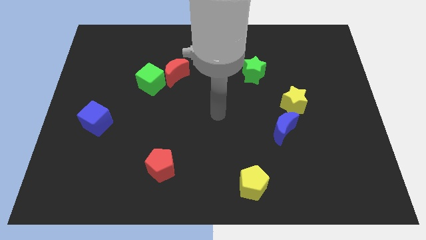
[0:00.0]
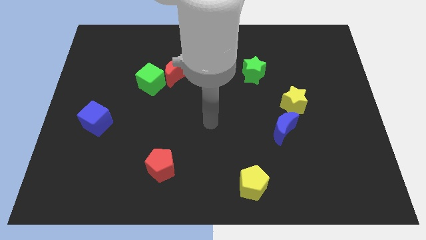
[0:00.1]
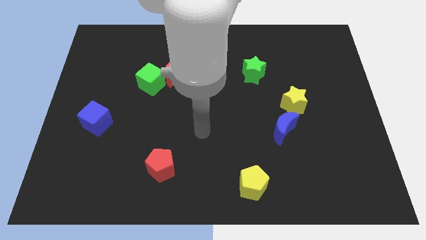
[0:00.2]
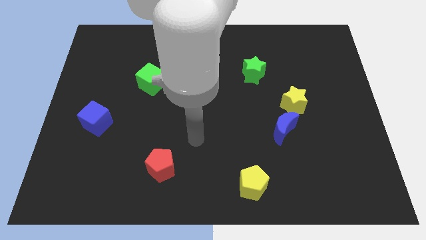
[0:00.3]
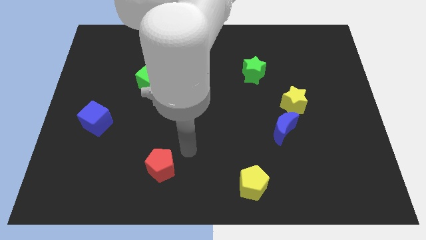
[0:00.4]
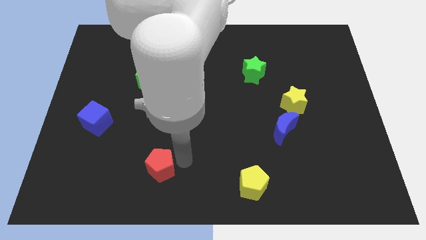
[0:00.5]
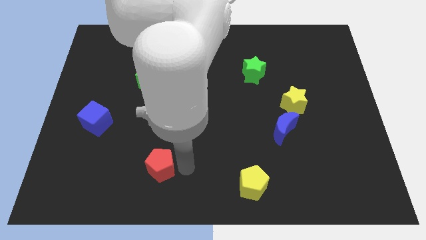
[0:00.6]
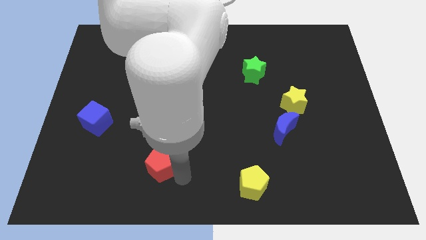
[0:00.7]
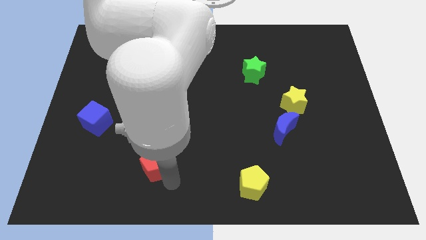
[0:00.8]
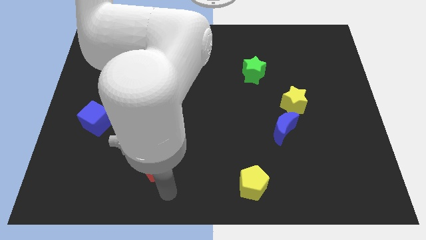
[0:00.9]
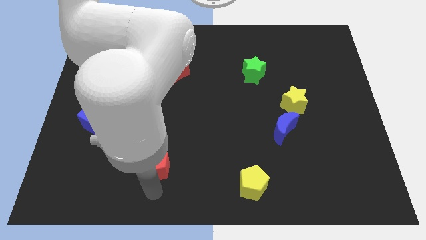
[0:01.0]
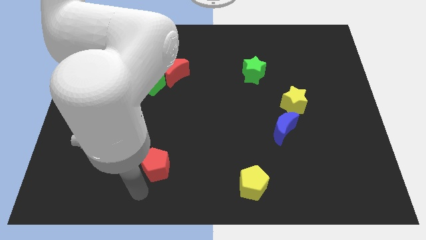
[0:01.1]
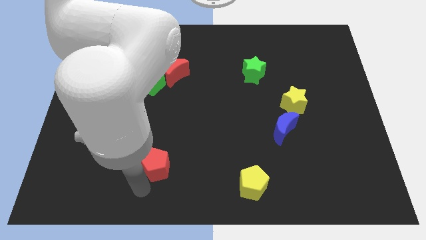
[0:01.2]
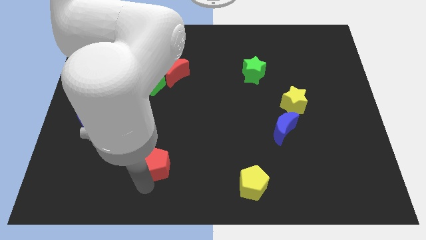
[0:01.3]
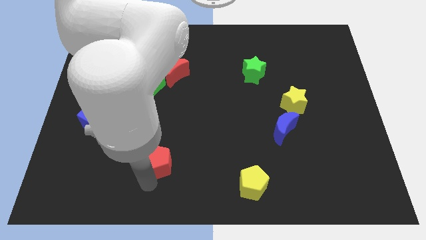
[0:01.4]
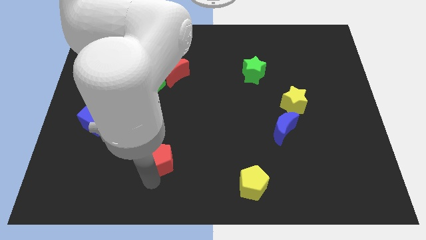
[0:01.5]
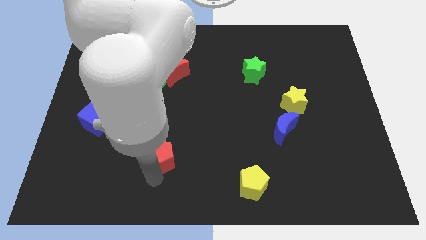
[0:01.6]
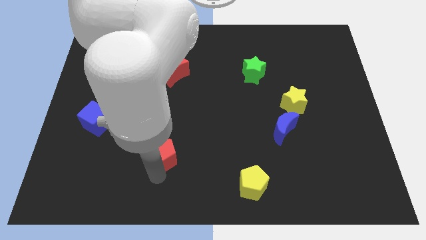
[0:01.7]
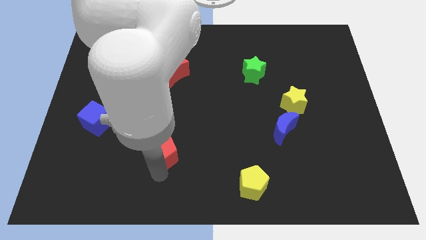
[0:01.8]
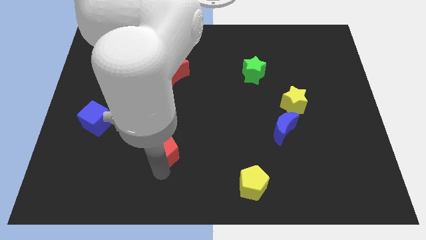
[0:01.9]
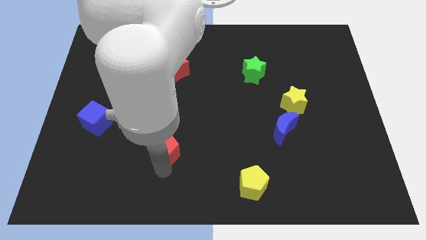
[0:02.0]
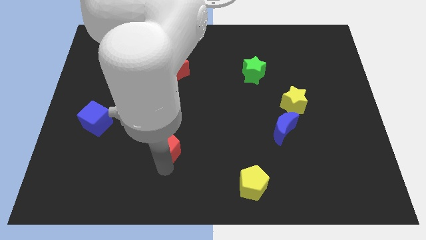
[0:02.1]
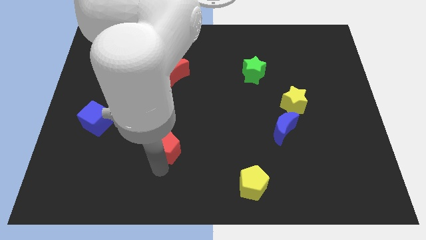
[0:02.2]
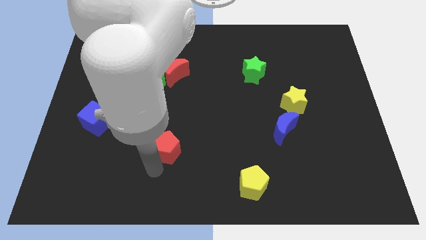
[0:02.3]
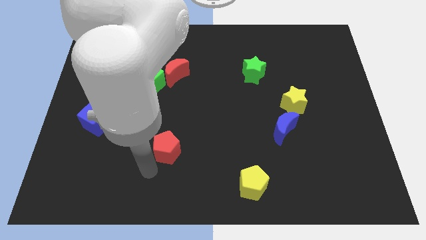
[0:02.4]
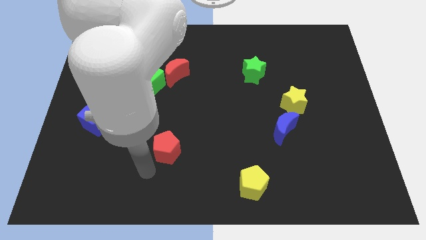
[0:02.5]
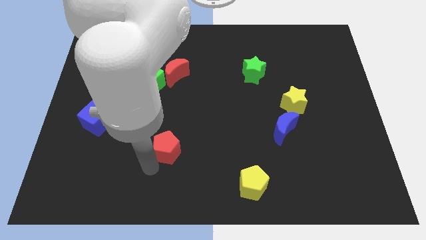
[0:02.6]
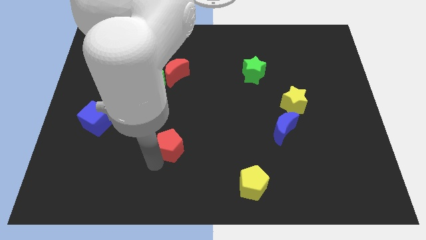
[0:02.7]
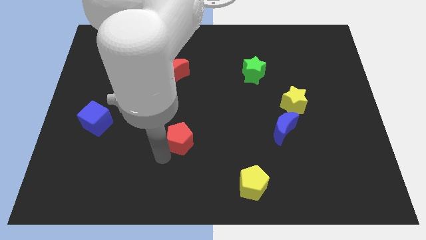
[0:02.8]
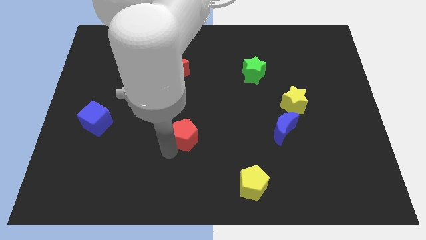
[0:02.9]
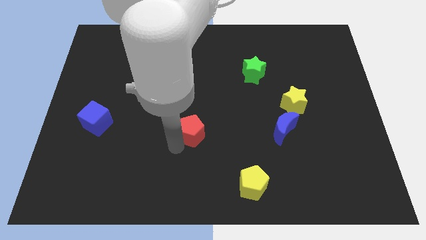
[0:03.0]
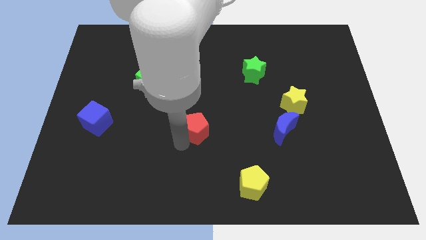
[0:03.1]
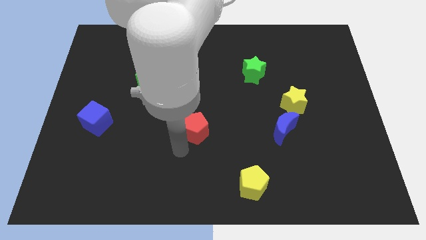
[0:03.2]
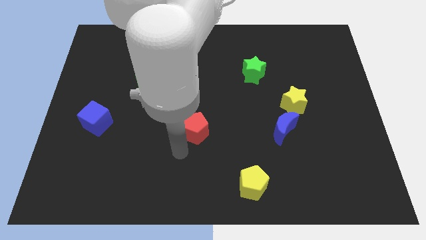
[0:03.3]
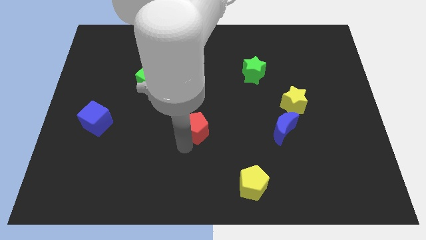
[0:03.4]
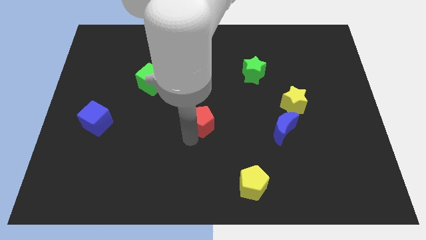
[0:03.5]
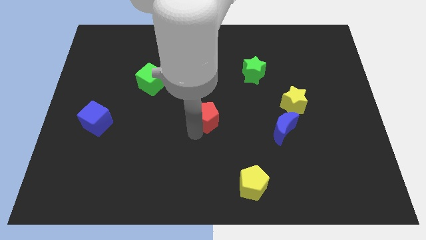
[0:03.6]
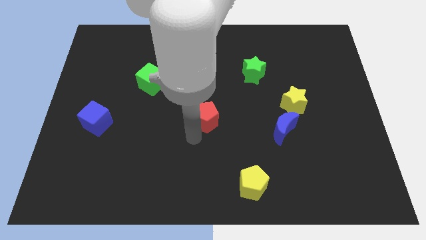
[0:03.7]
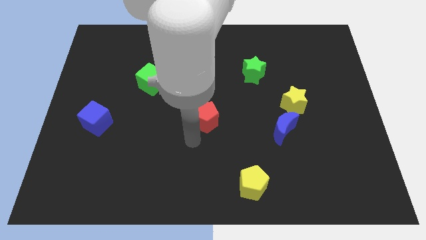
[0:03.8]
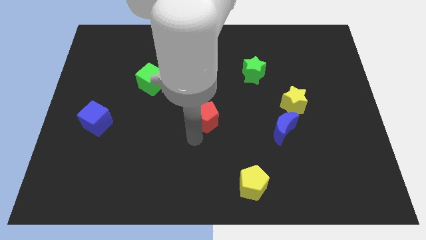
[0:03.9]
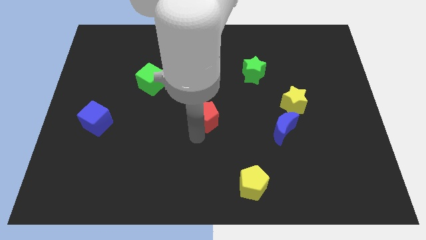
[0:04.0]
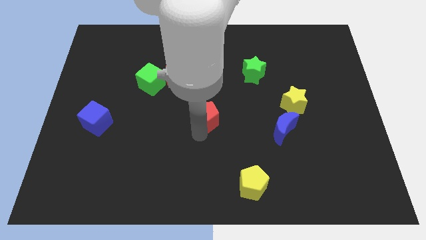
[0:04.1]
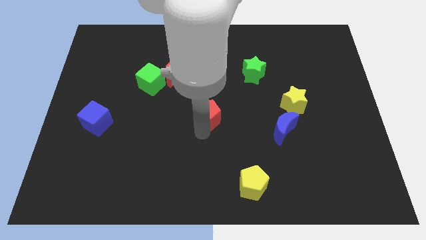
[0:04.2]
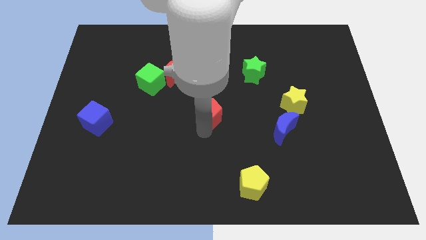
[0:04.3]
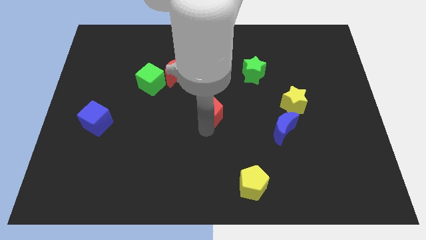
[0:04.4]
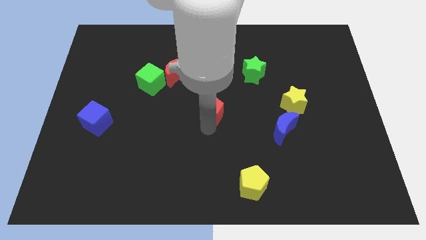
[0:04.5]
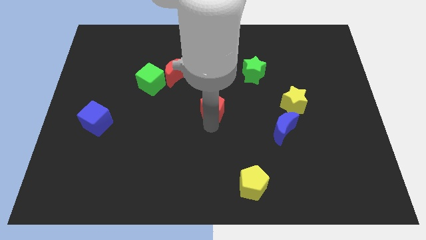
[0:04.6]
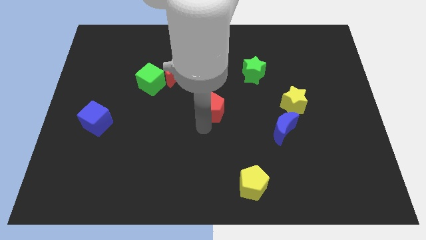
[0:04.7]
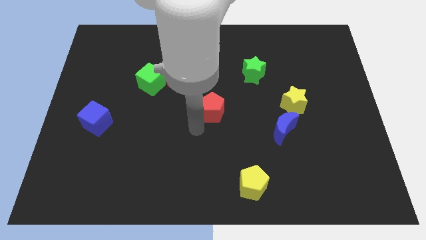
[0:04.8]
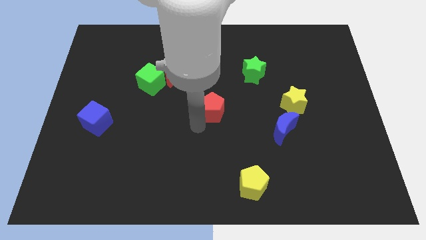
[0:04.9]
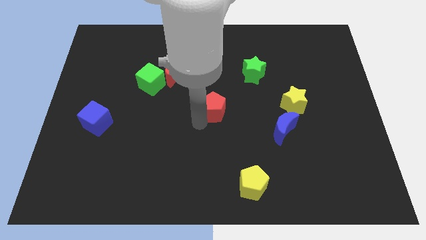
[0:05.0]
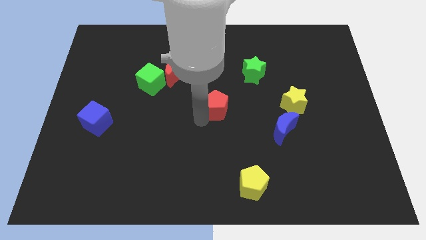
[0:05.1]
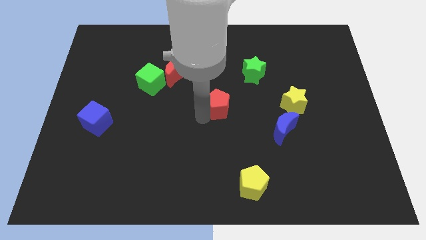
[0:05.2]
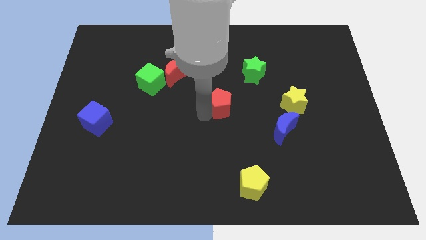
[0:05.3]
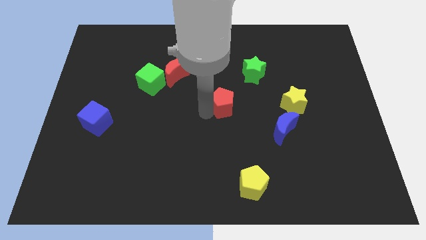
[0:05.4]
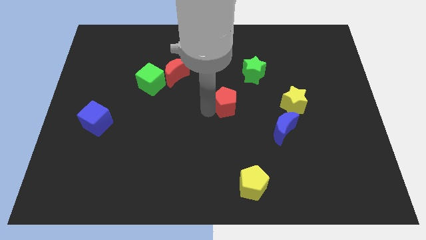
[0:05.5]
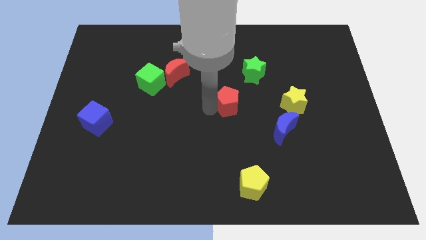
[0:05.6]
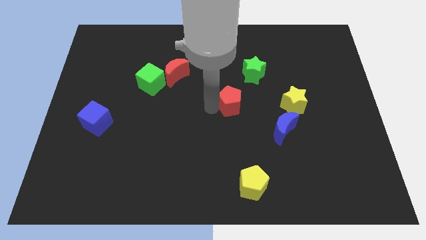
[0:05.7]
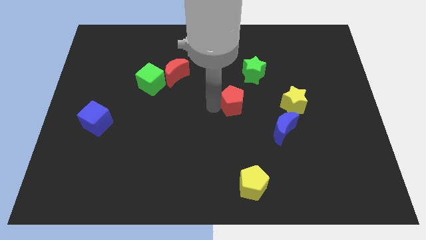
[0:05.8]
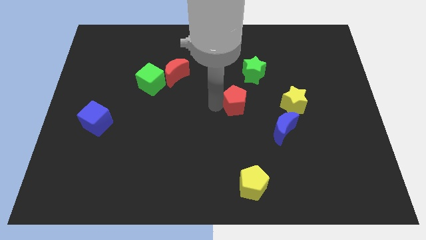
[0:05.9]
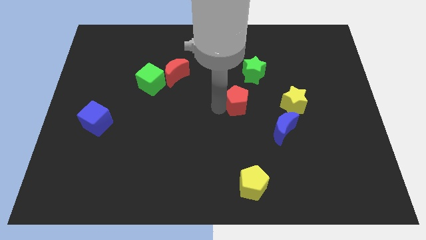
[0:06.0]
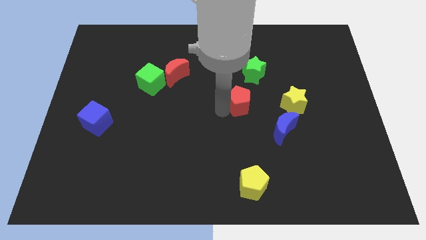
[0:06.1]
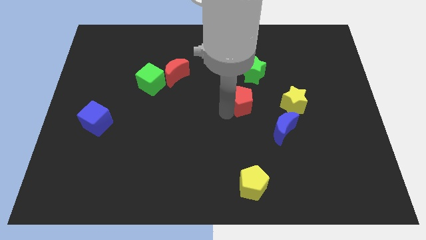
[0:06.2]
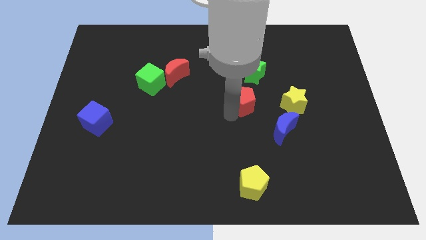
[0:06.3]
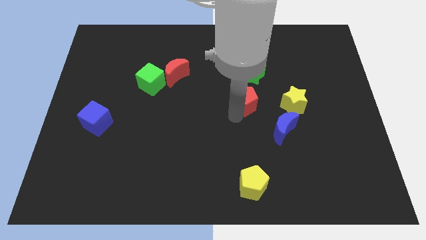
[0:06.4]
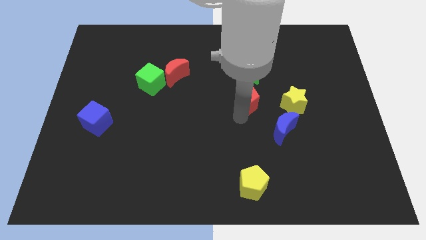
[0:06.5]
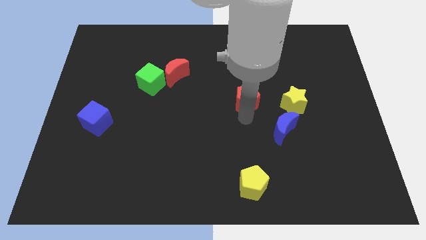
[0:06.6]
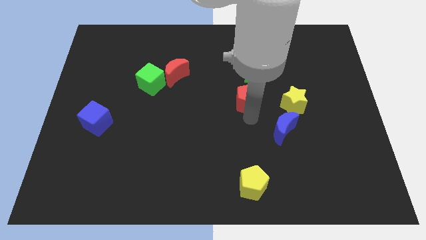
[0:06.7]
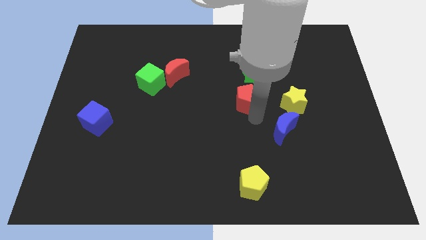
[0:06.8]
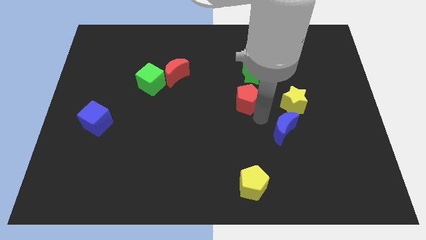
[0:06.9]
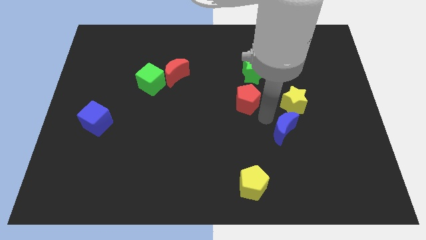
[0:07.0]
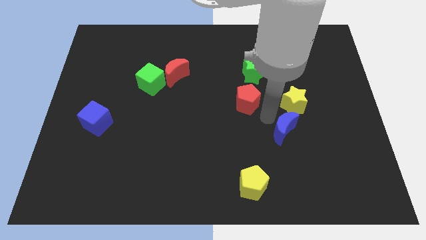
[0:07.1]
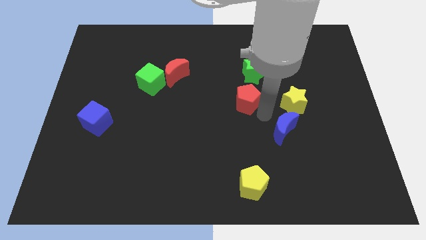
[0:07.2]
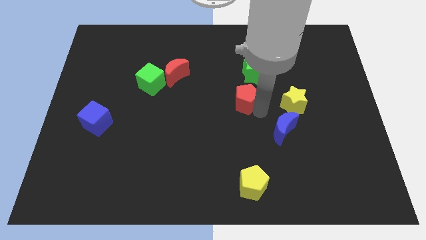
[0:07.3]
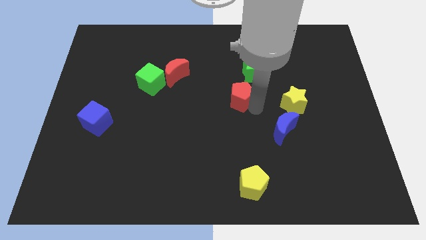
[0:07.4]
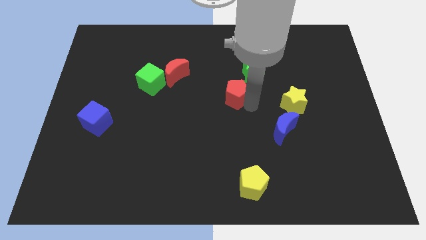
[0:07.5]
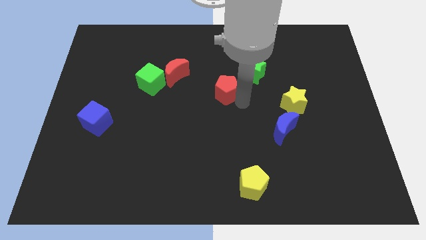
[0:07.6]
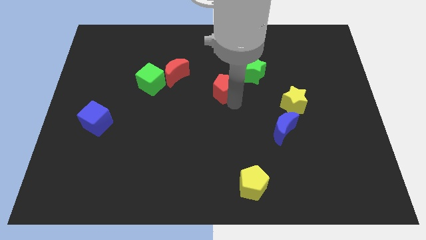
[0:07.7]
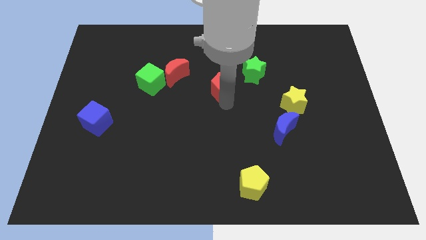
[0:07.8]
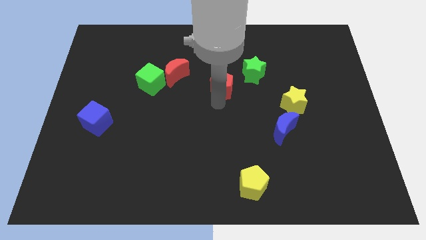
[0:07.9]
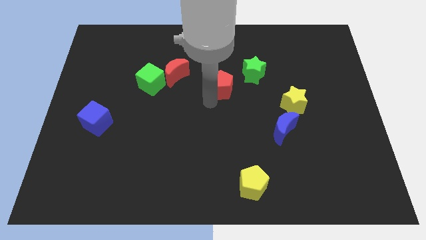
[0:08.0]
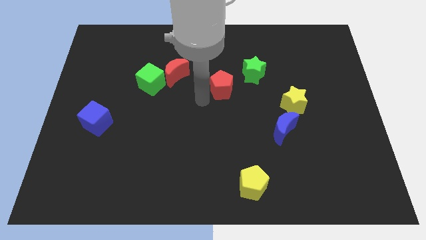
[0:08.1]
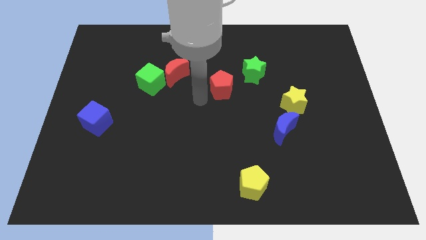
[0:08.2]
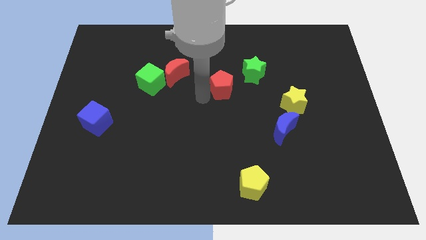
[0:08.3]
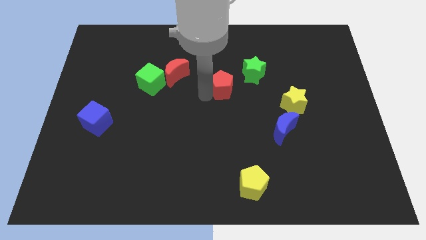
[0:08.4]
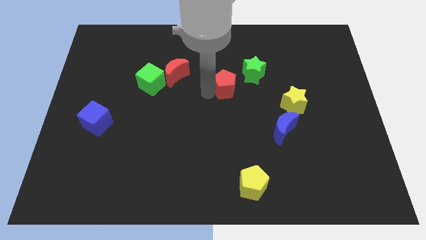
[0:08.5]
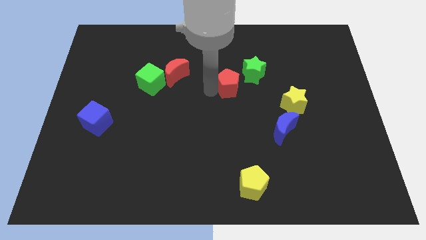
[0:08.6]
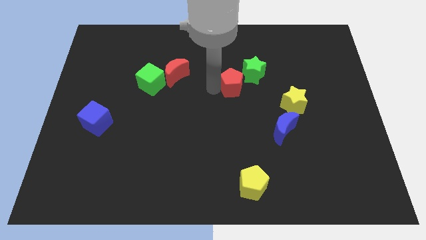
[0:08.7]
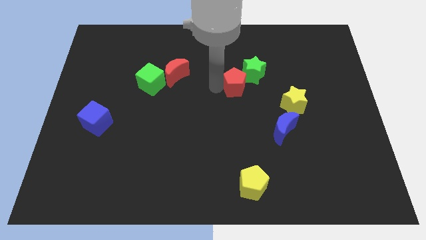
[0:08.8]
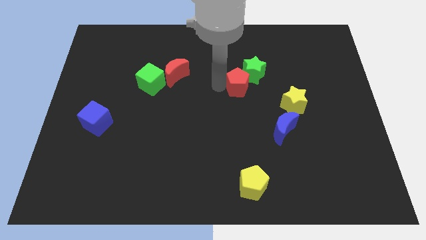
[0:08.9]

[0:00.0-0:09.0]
slide the red pentagon next to the green star
